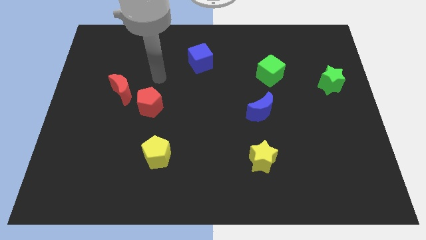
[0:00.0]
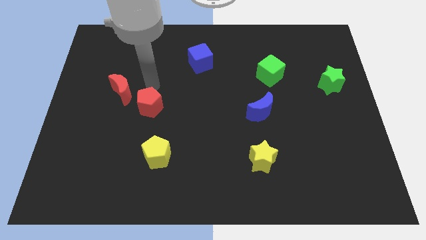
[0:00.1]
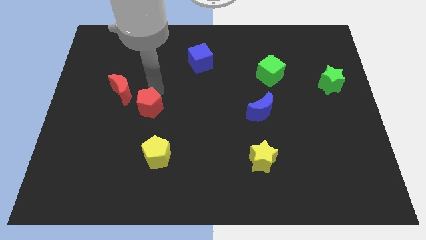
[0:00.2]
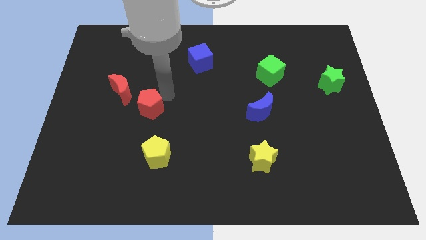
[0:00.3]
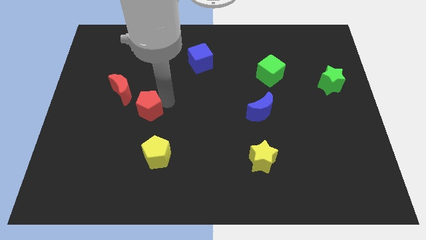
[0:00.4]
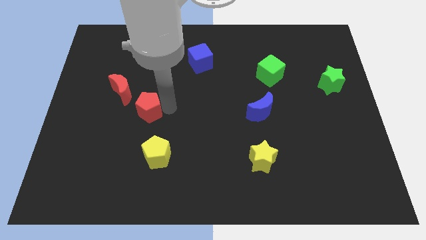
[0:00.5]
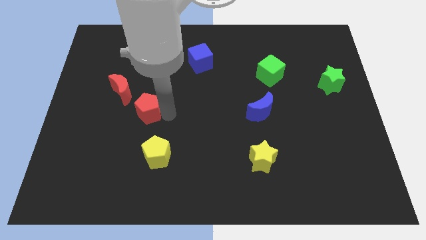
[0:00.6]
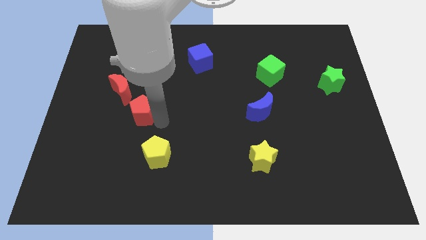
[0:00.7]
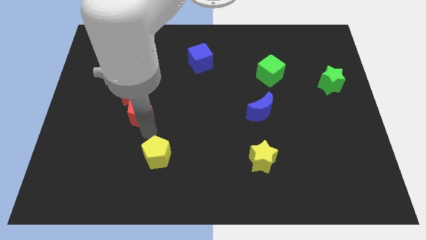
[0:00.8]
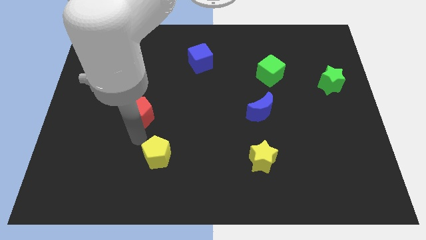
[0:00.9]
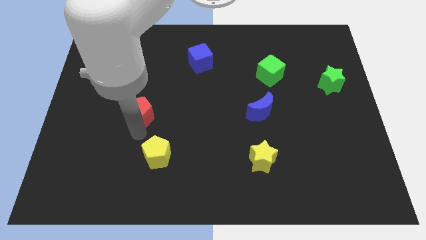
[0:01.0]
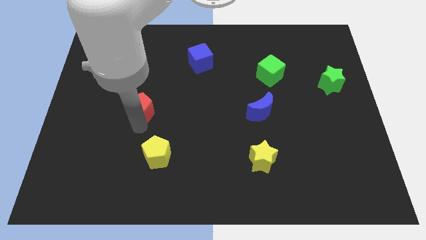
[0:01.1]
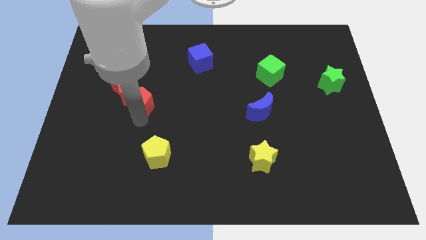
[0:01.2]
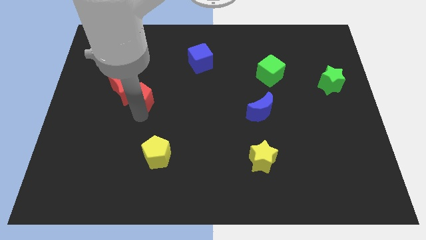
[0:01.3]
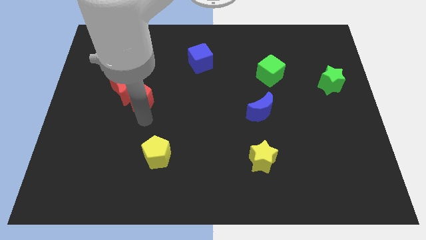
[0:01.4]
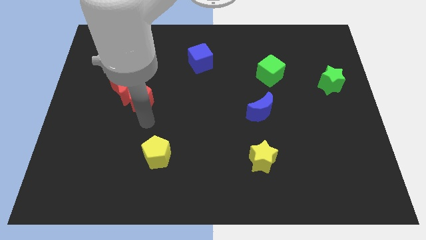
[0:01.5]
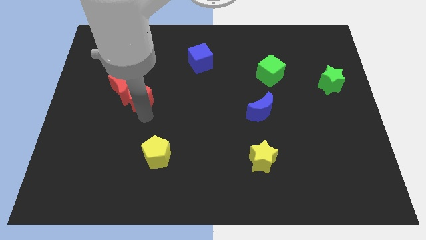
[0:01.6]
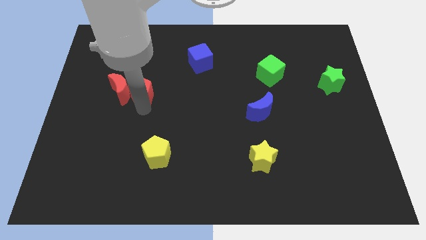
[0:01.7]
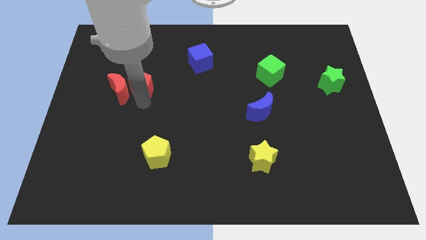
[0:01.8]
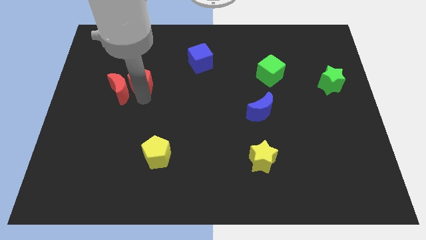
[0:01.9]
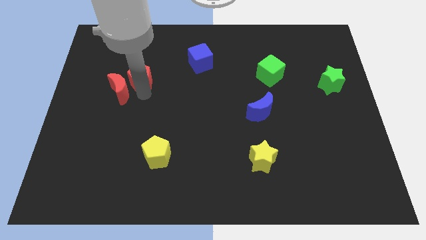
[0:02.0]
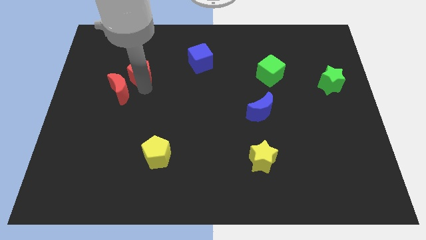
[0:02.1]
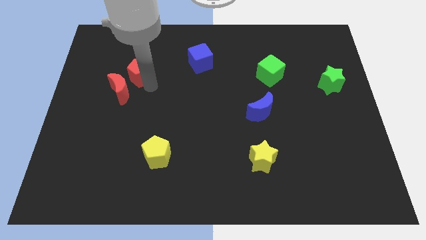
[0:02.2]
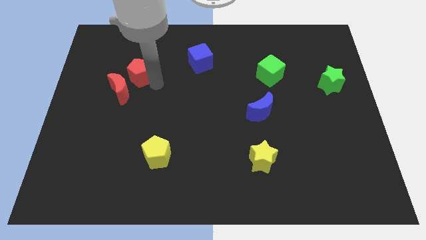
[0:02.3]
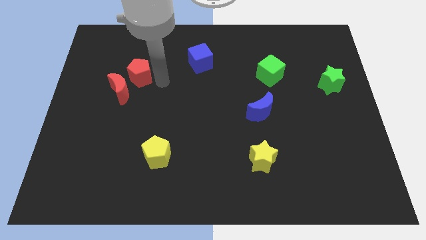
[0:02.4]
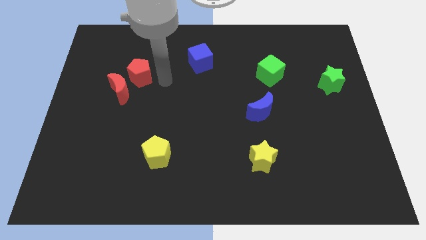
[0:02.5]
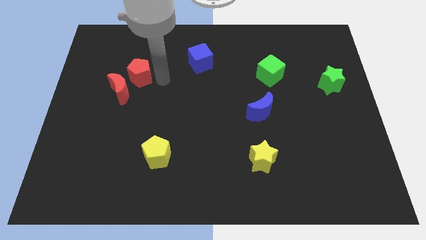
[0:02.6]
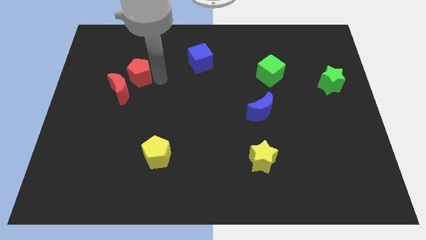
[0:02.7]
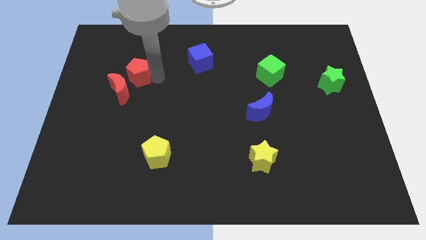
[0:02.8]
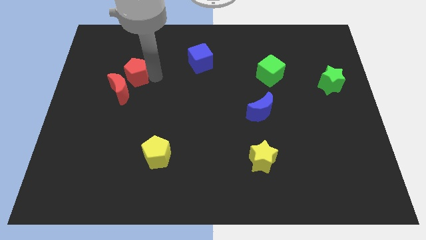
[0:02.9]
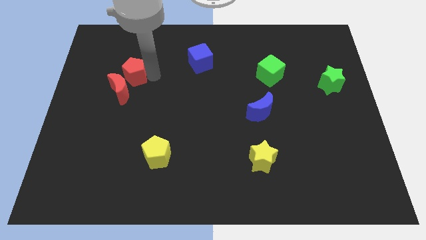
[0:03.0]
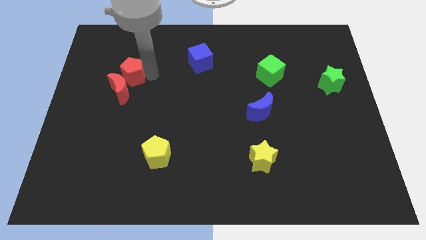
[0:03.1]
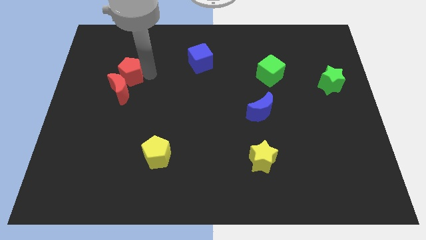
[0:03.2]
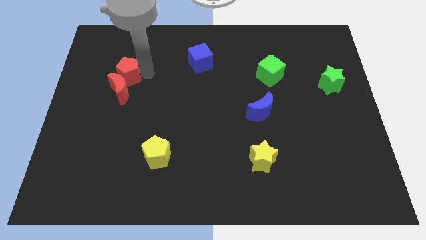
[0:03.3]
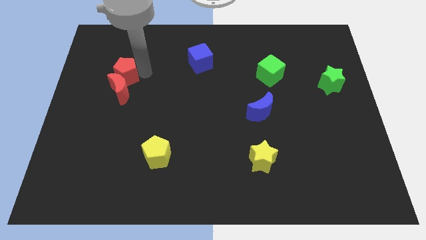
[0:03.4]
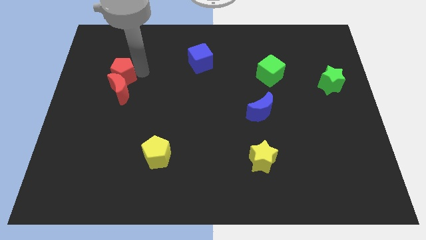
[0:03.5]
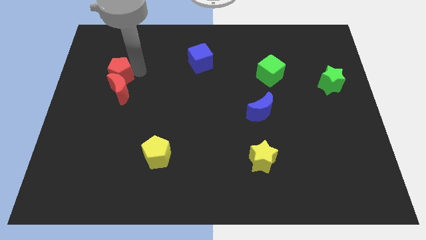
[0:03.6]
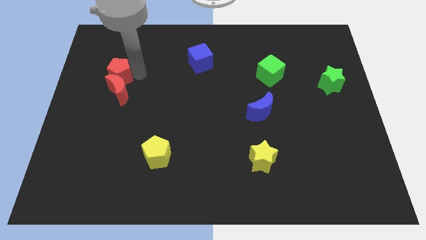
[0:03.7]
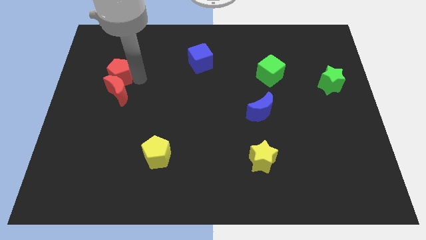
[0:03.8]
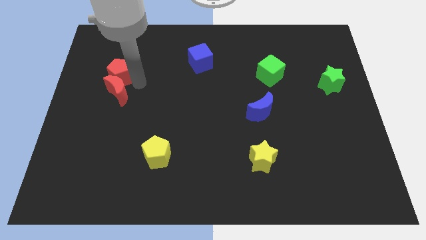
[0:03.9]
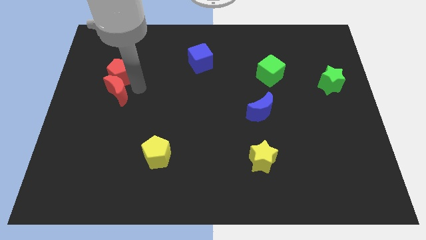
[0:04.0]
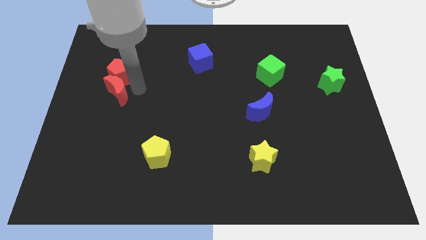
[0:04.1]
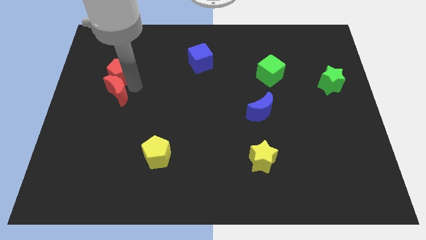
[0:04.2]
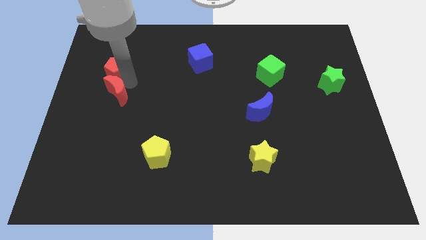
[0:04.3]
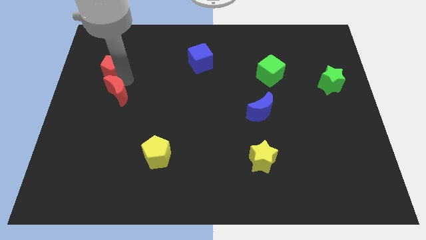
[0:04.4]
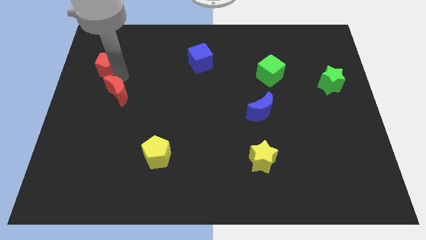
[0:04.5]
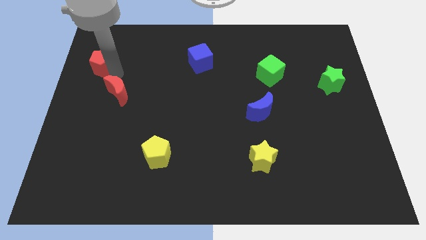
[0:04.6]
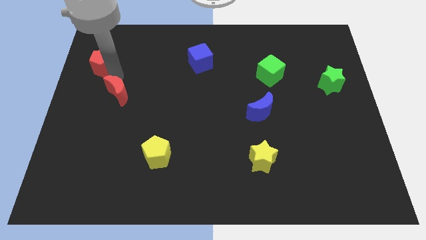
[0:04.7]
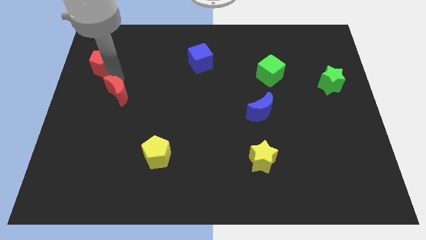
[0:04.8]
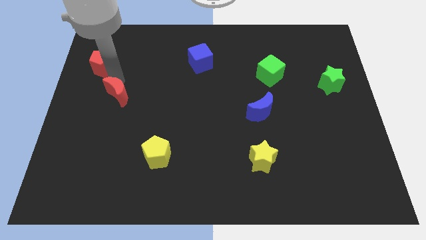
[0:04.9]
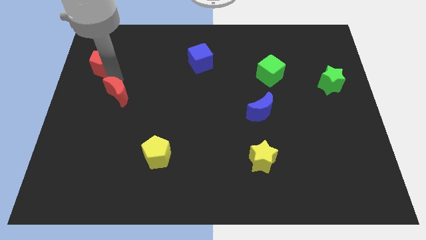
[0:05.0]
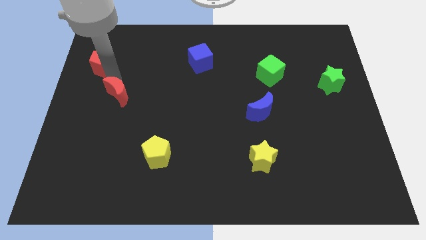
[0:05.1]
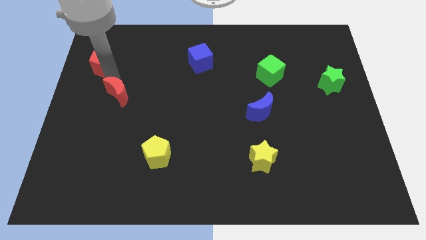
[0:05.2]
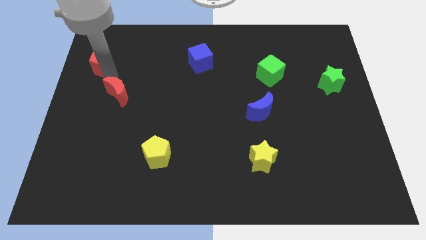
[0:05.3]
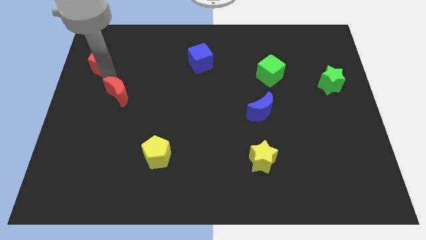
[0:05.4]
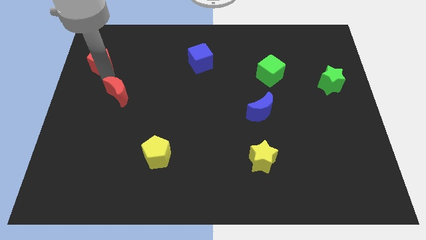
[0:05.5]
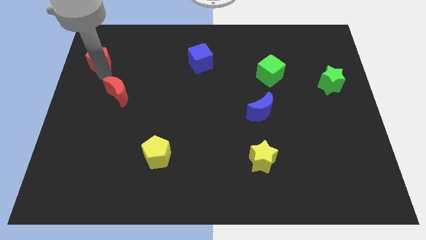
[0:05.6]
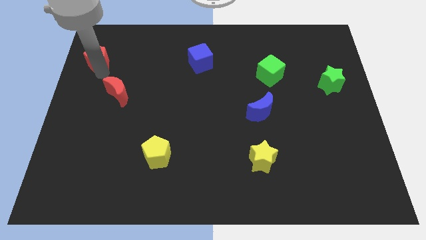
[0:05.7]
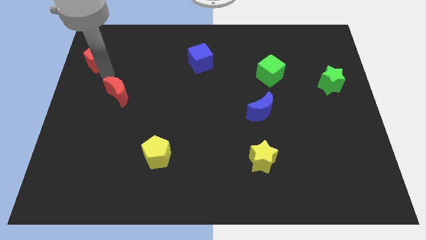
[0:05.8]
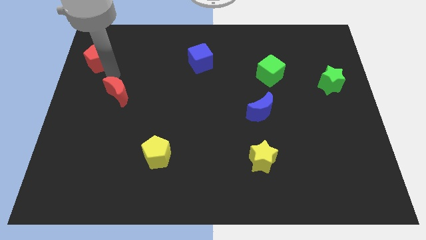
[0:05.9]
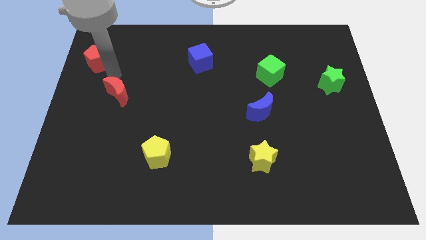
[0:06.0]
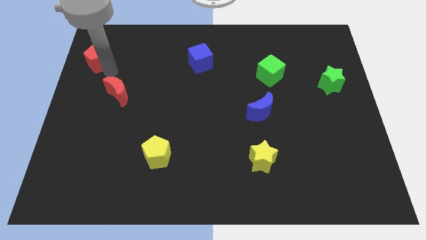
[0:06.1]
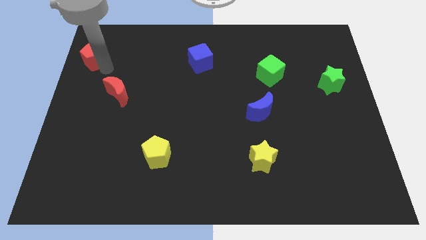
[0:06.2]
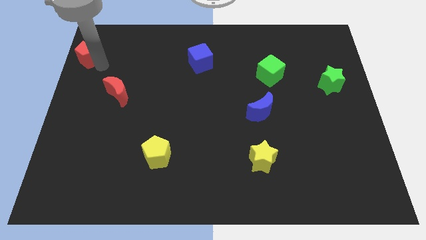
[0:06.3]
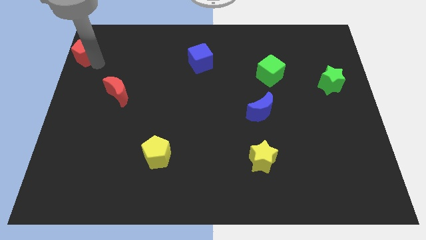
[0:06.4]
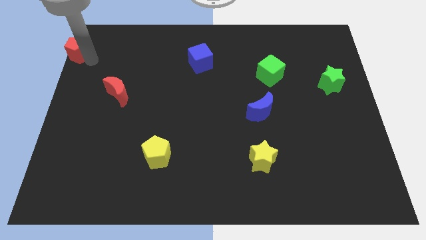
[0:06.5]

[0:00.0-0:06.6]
move the red pentagon to the top left

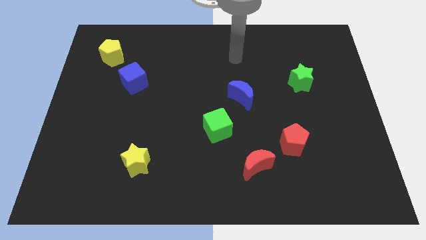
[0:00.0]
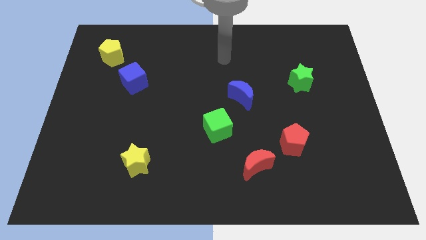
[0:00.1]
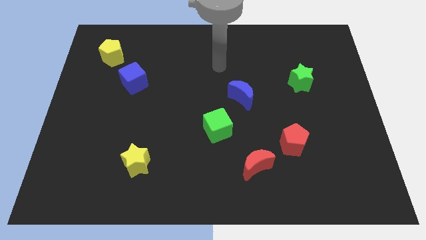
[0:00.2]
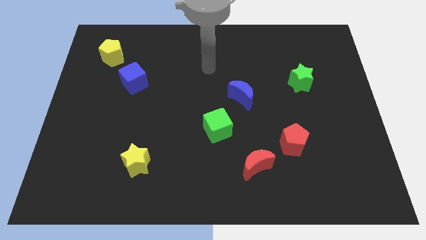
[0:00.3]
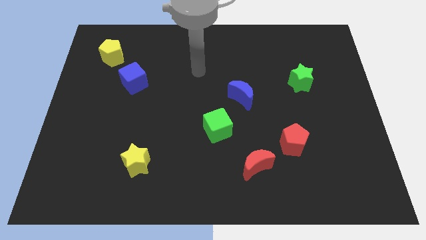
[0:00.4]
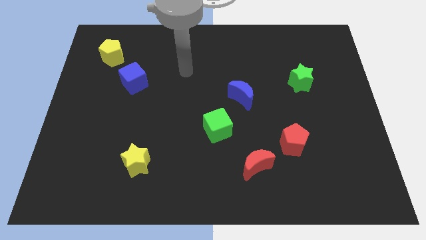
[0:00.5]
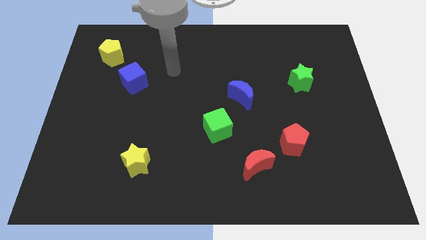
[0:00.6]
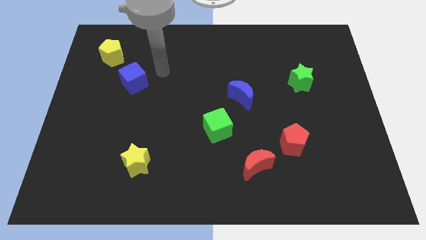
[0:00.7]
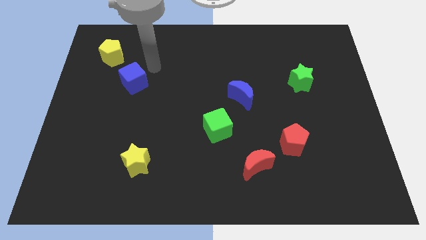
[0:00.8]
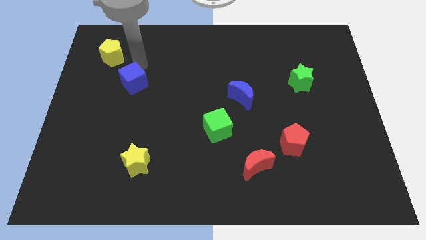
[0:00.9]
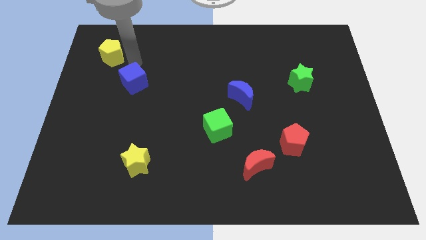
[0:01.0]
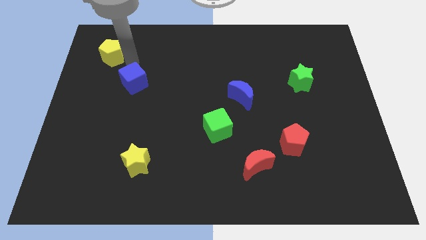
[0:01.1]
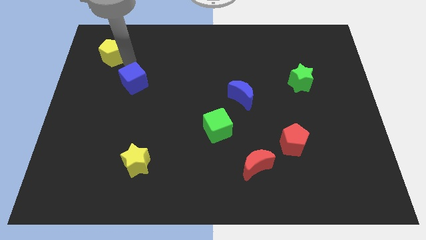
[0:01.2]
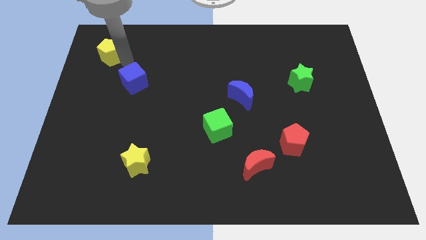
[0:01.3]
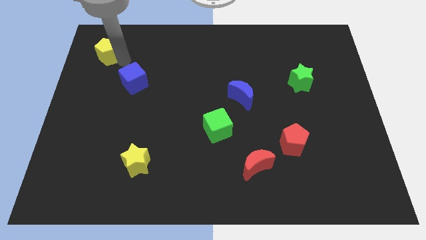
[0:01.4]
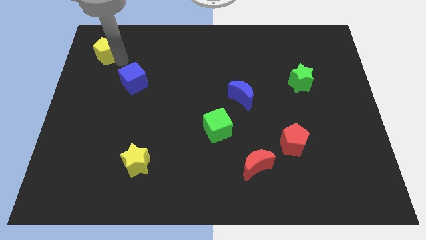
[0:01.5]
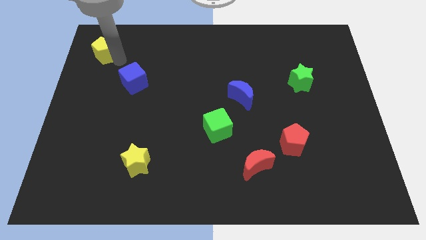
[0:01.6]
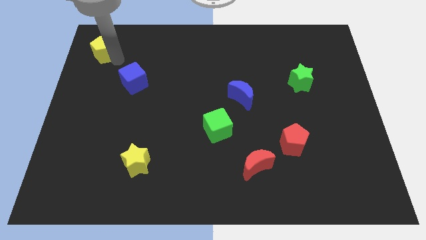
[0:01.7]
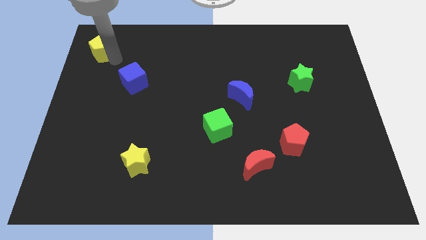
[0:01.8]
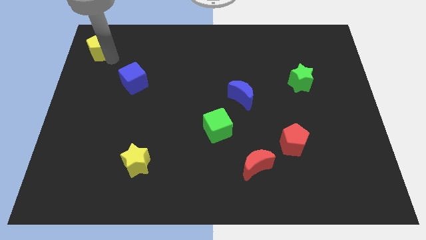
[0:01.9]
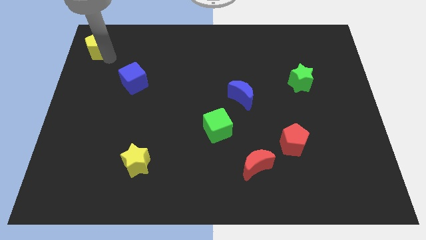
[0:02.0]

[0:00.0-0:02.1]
slide the yellow pentagon to the top left corner
